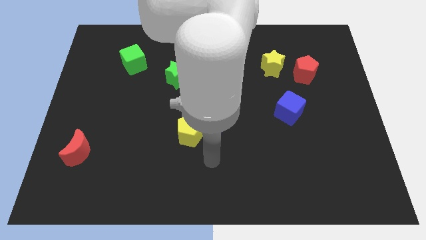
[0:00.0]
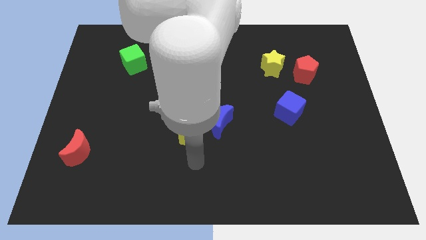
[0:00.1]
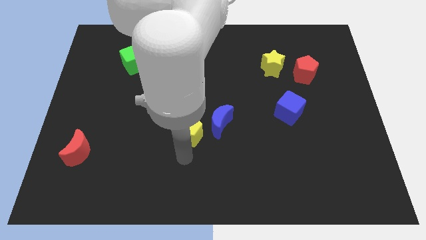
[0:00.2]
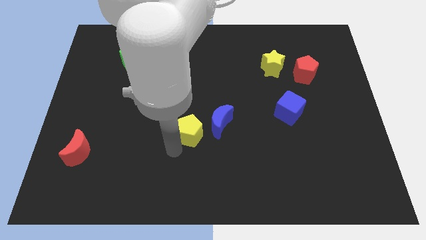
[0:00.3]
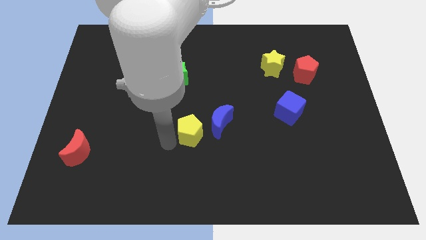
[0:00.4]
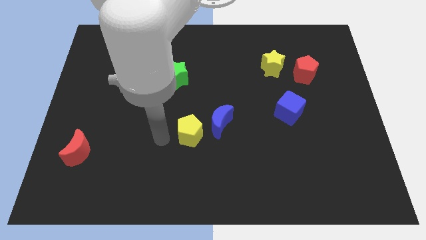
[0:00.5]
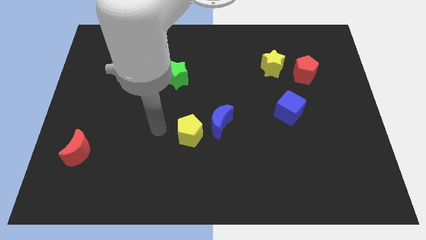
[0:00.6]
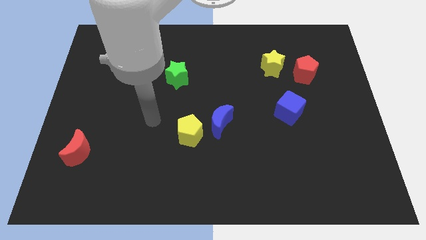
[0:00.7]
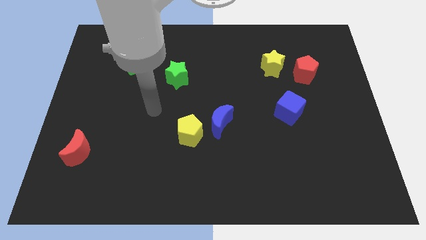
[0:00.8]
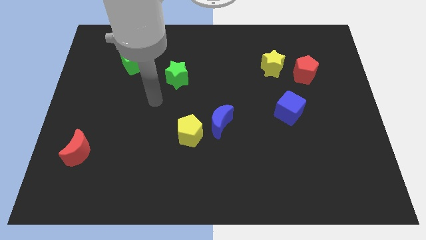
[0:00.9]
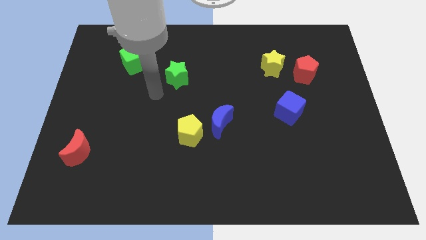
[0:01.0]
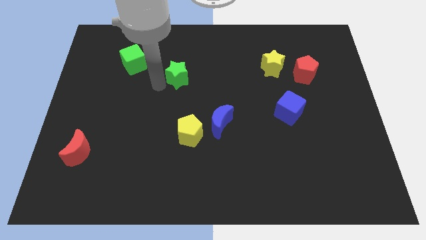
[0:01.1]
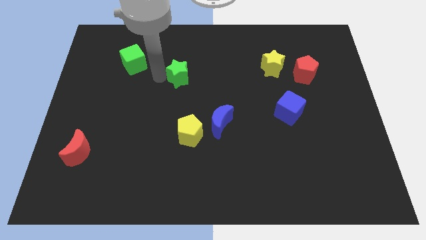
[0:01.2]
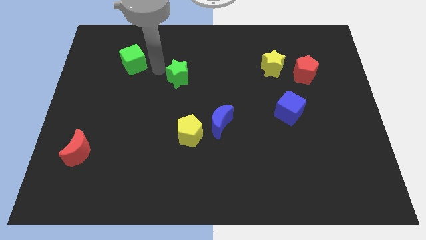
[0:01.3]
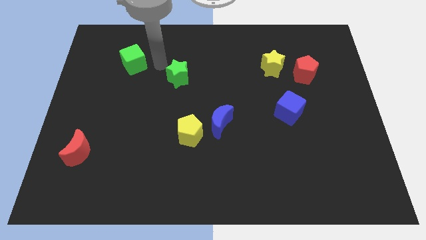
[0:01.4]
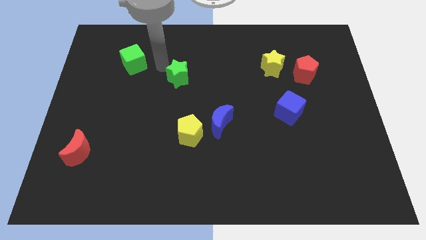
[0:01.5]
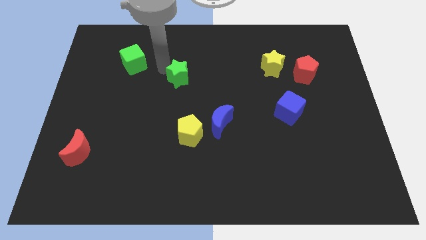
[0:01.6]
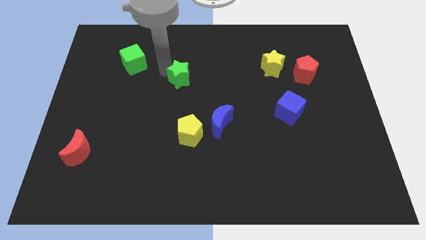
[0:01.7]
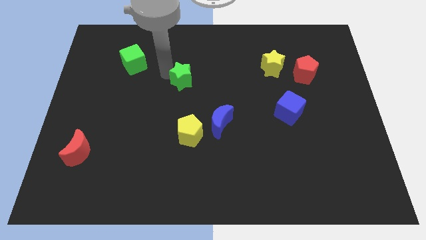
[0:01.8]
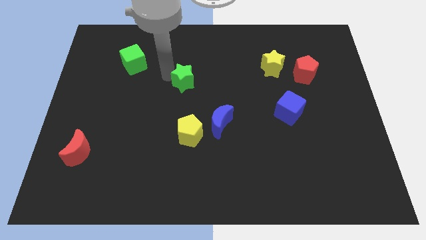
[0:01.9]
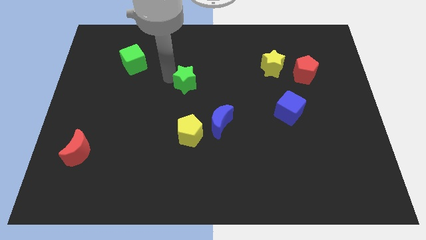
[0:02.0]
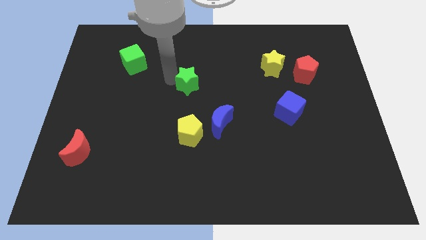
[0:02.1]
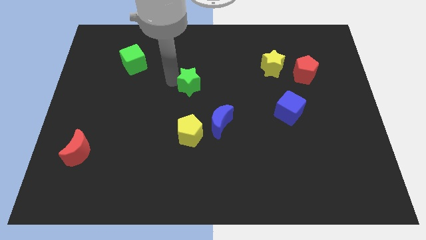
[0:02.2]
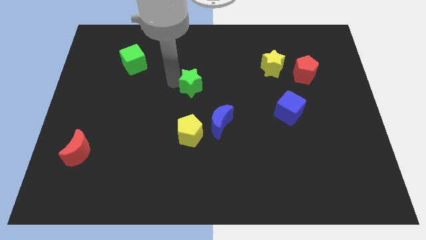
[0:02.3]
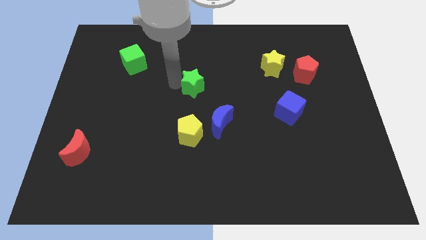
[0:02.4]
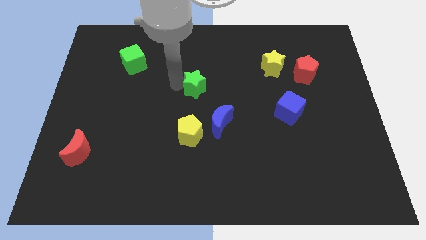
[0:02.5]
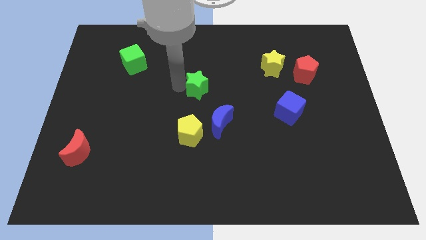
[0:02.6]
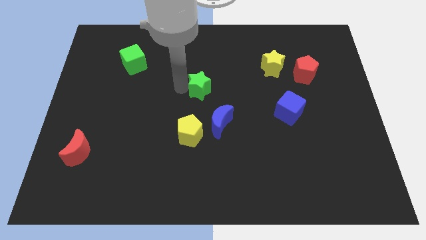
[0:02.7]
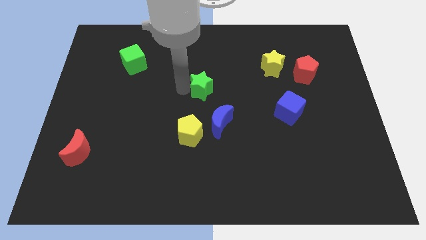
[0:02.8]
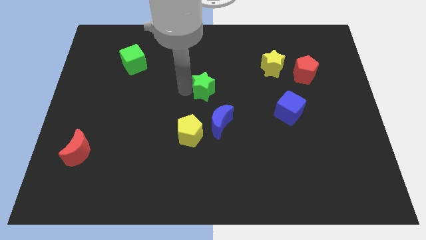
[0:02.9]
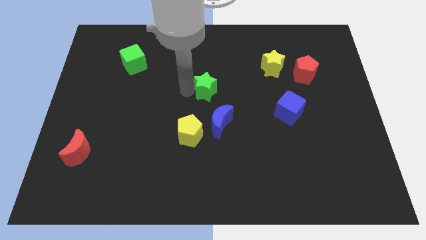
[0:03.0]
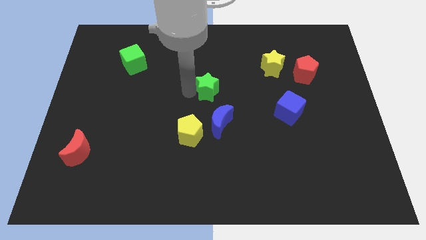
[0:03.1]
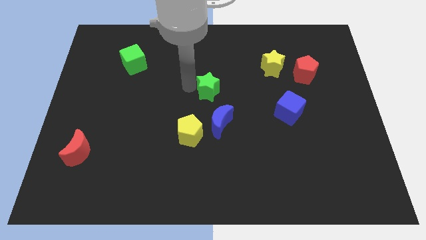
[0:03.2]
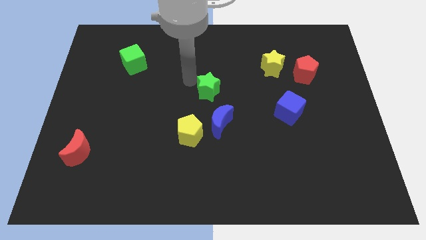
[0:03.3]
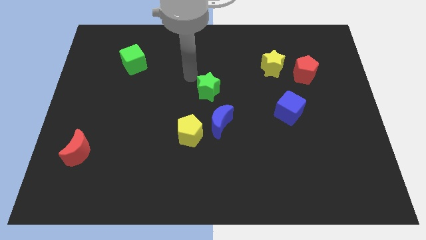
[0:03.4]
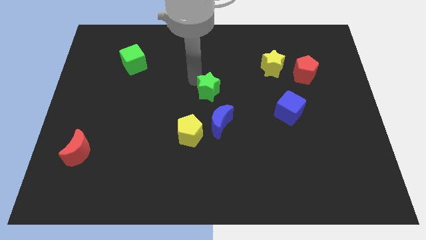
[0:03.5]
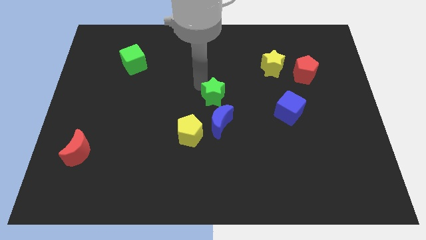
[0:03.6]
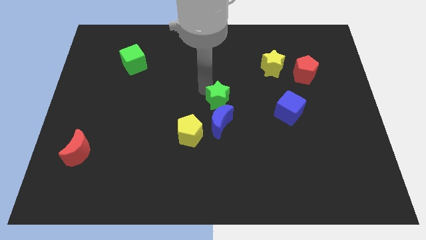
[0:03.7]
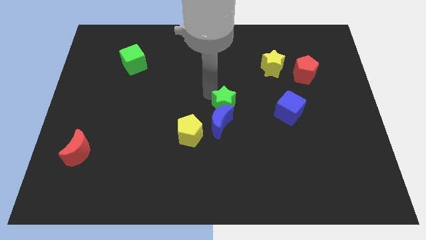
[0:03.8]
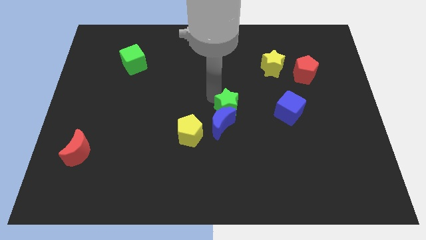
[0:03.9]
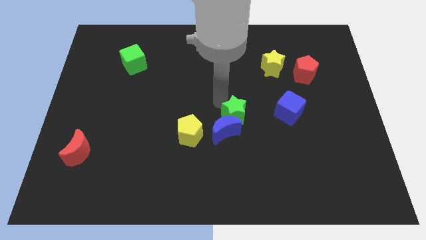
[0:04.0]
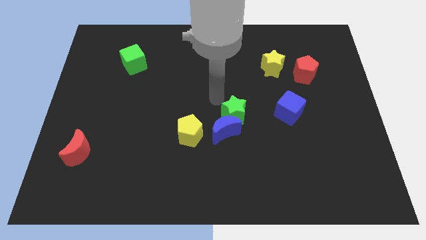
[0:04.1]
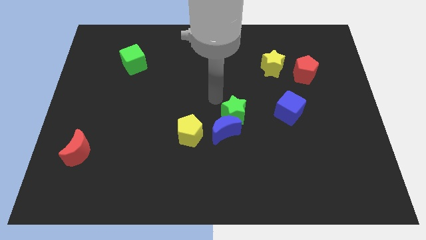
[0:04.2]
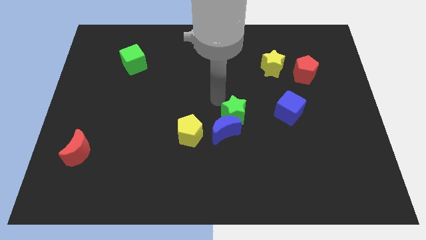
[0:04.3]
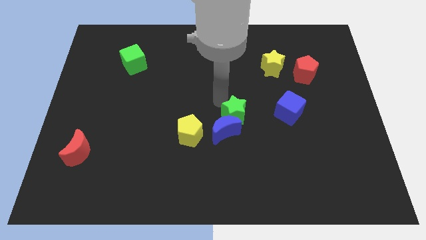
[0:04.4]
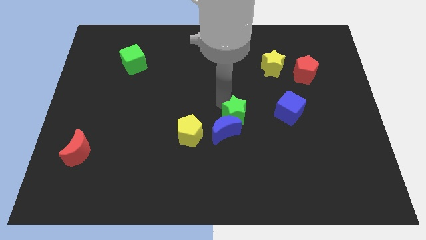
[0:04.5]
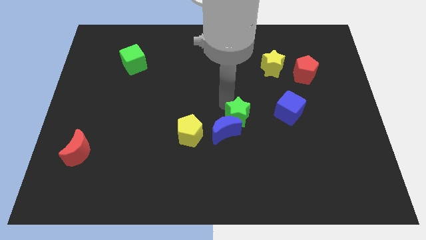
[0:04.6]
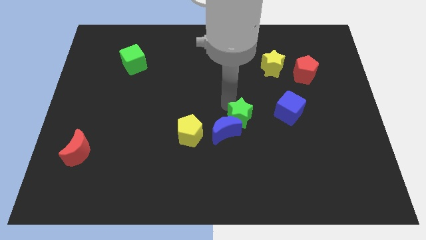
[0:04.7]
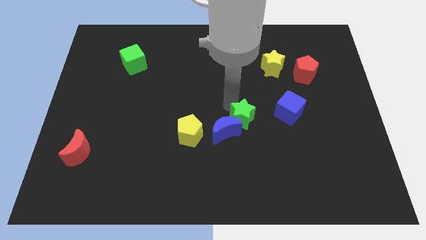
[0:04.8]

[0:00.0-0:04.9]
slide the green star downwards and then right

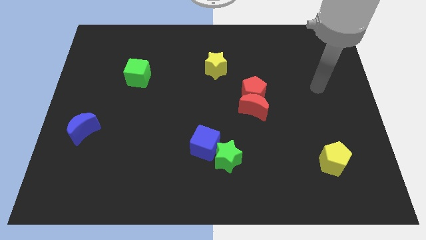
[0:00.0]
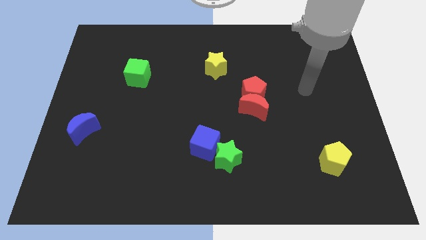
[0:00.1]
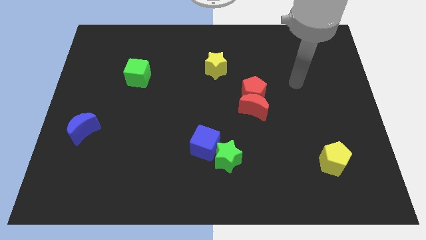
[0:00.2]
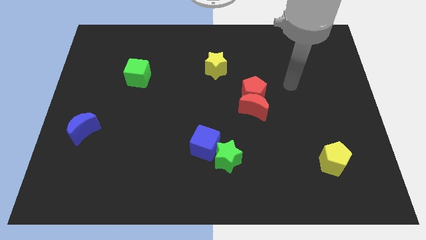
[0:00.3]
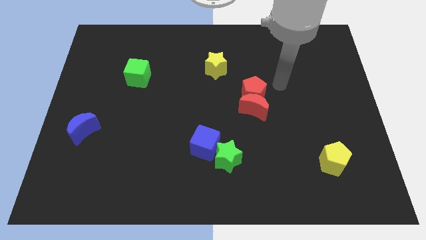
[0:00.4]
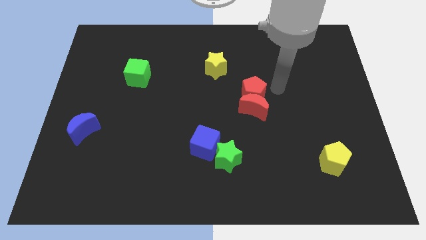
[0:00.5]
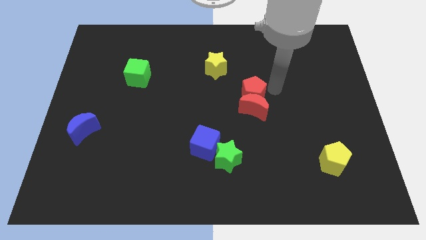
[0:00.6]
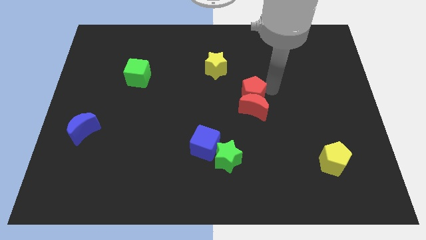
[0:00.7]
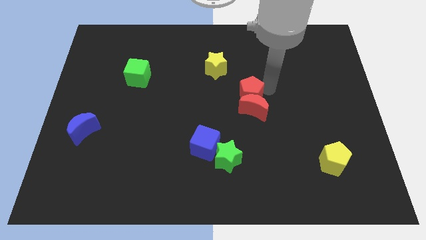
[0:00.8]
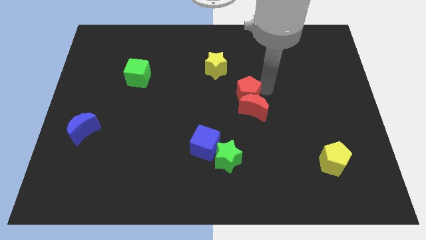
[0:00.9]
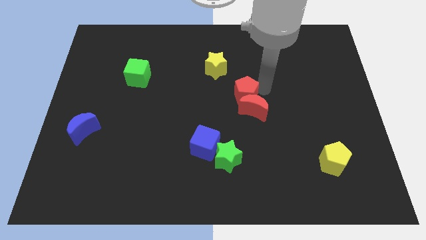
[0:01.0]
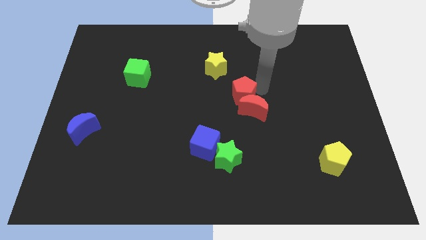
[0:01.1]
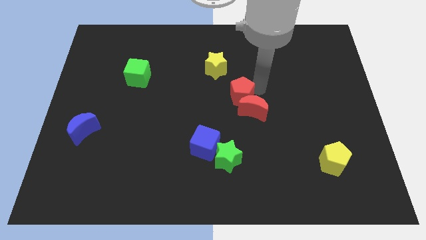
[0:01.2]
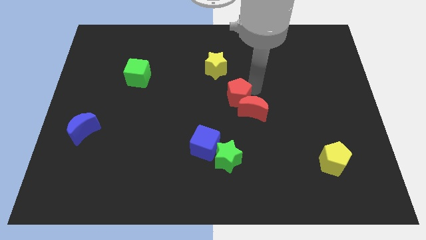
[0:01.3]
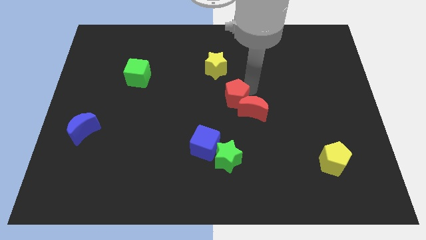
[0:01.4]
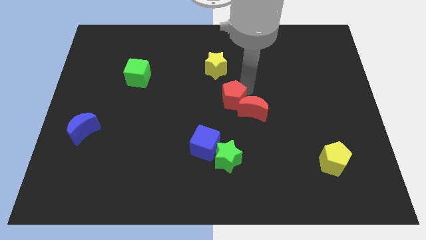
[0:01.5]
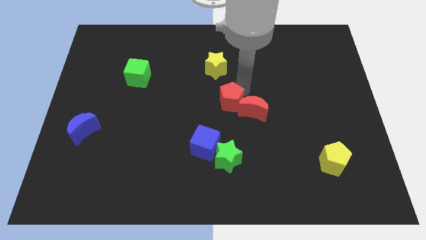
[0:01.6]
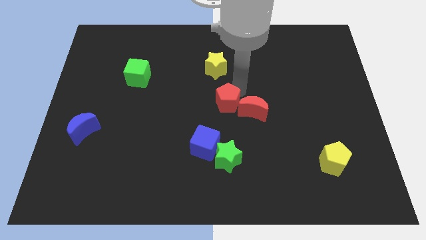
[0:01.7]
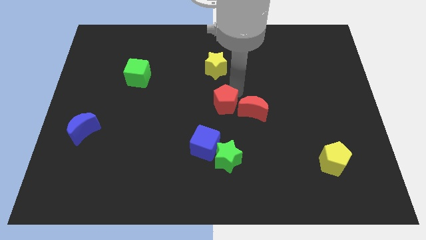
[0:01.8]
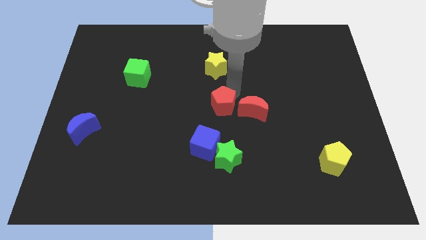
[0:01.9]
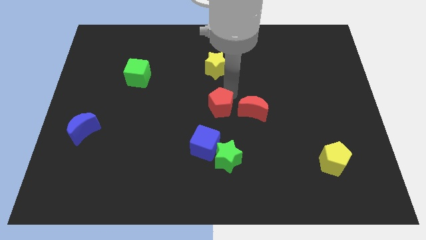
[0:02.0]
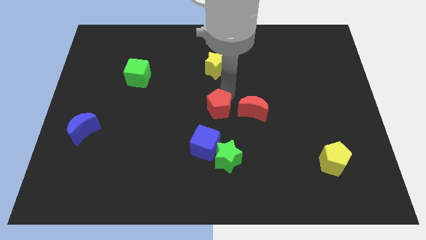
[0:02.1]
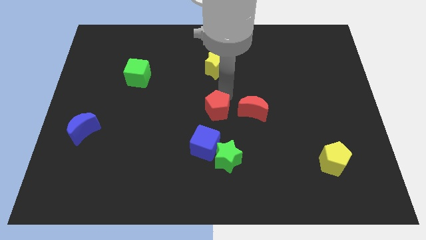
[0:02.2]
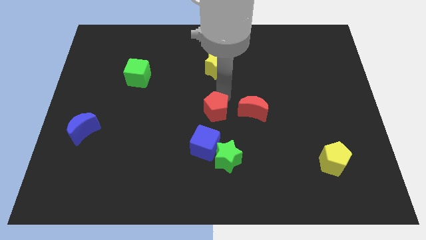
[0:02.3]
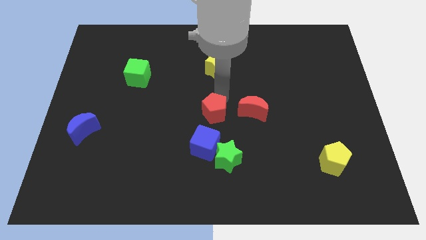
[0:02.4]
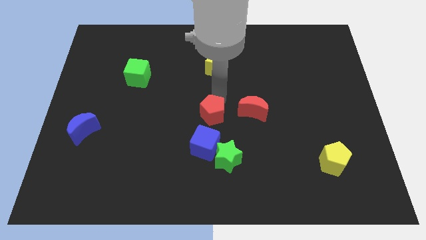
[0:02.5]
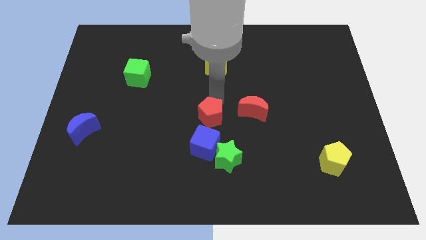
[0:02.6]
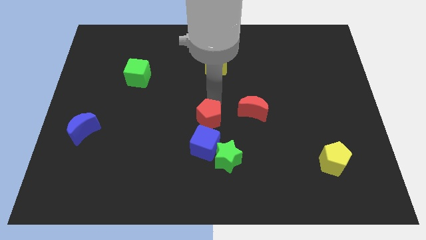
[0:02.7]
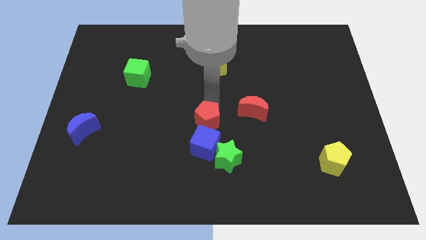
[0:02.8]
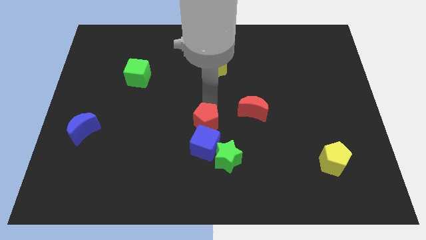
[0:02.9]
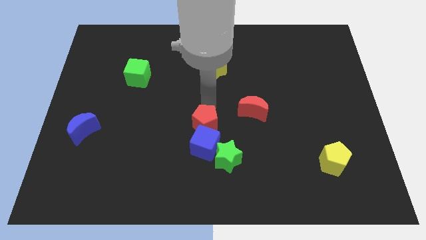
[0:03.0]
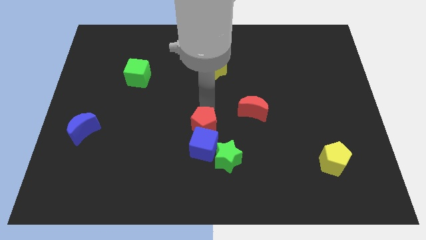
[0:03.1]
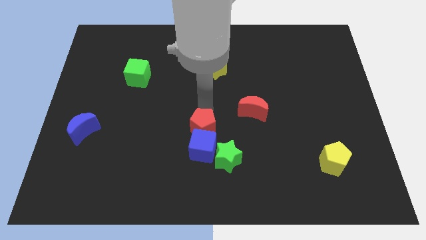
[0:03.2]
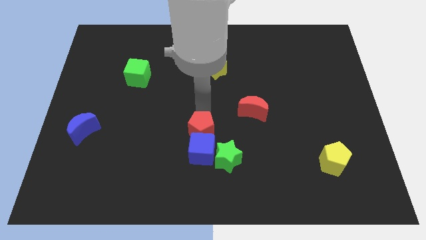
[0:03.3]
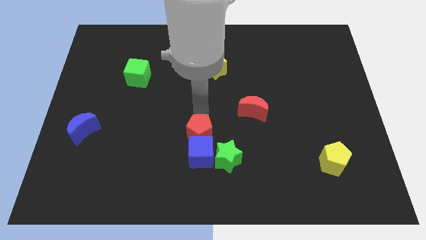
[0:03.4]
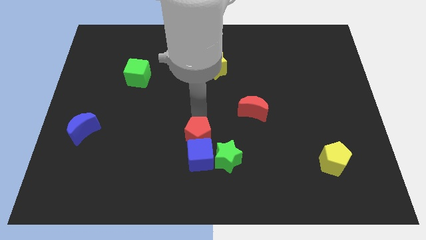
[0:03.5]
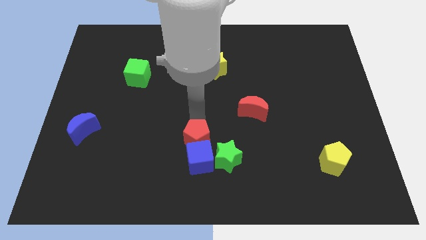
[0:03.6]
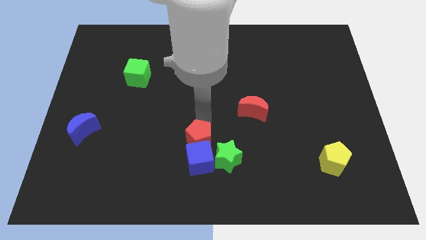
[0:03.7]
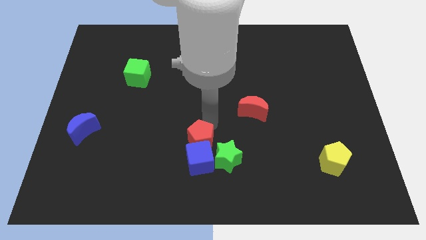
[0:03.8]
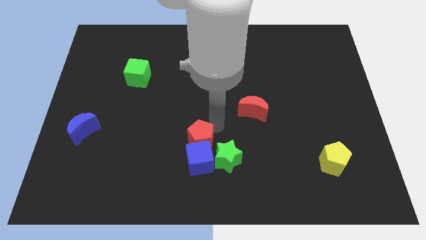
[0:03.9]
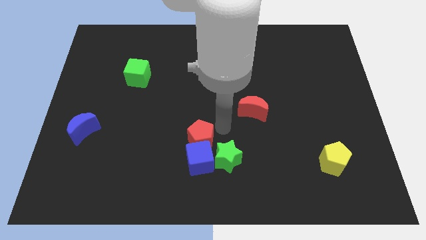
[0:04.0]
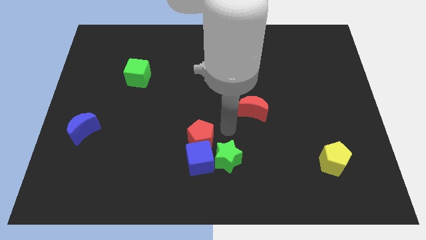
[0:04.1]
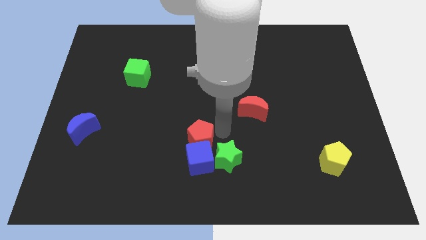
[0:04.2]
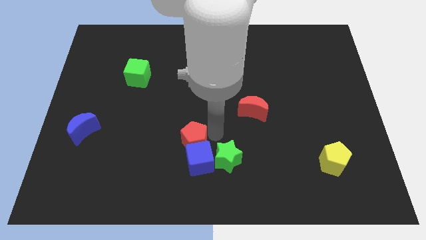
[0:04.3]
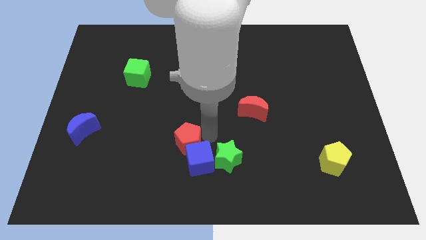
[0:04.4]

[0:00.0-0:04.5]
move the red pentagon downwards and left diagonally
